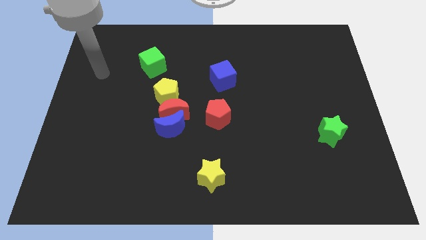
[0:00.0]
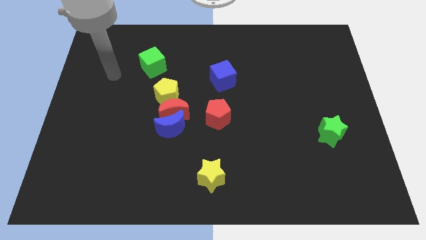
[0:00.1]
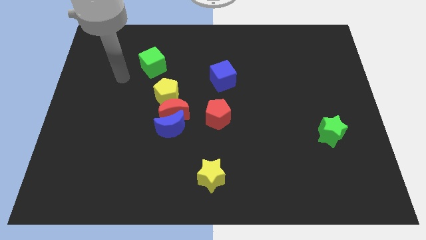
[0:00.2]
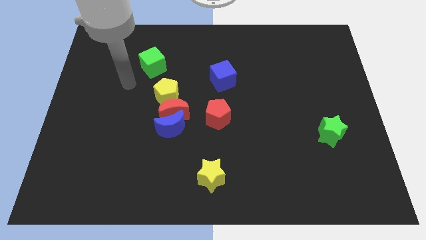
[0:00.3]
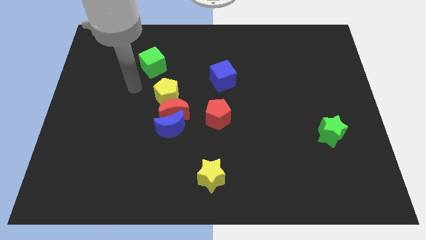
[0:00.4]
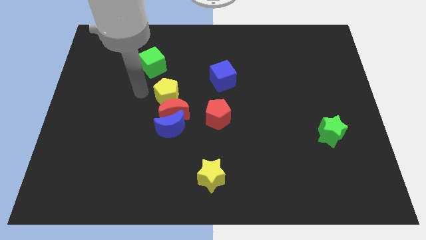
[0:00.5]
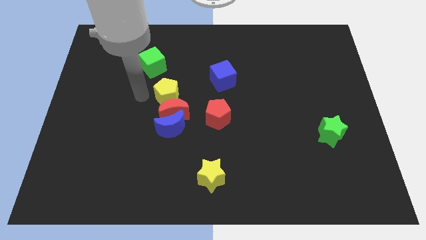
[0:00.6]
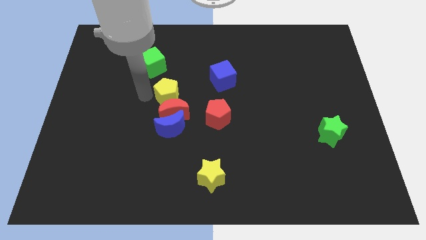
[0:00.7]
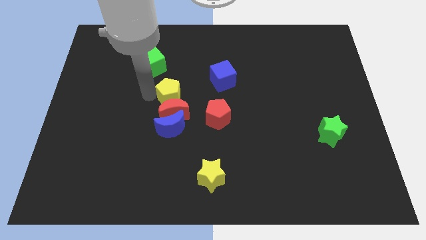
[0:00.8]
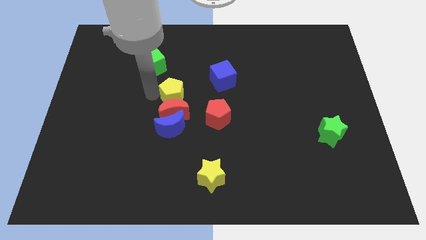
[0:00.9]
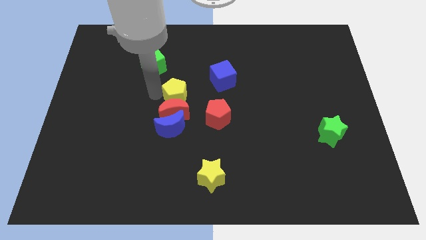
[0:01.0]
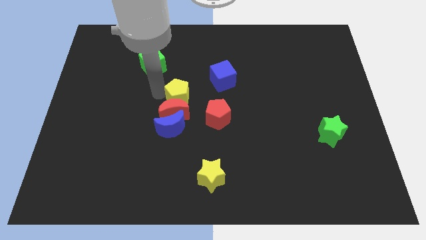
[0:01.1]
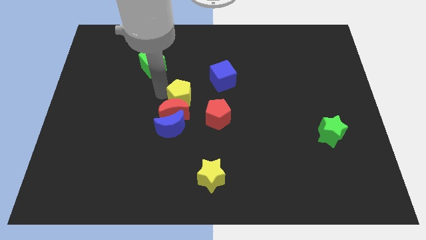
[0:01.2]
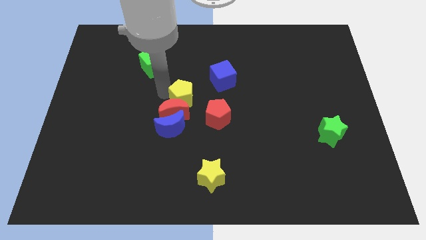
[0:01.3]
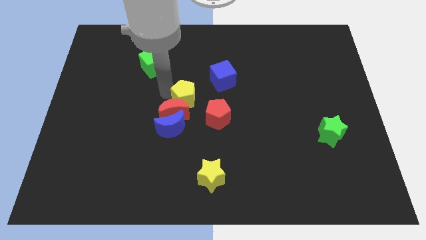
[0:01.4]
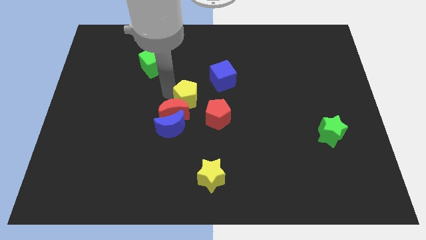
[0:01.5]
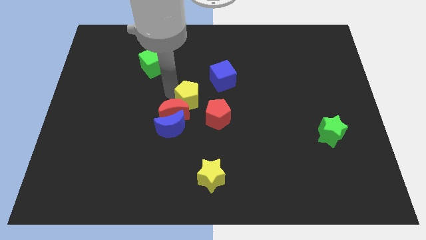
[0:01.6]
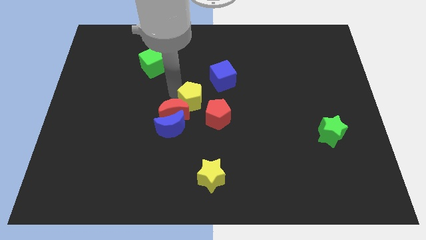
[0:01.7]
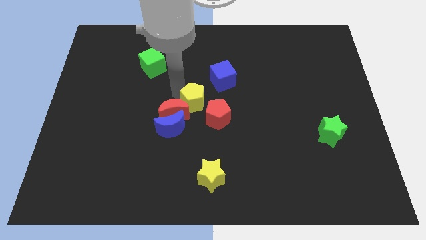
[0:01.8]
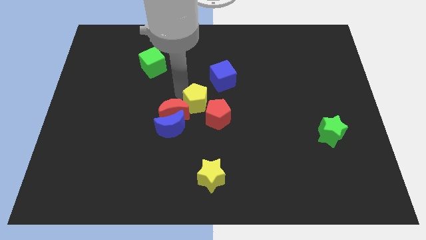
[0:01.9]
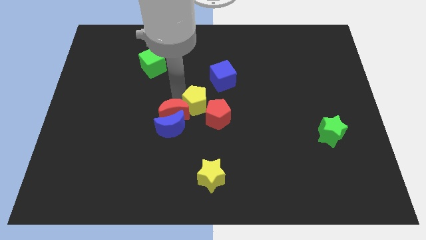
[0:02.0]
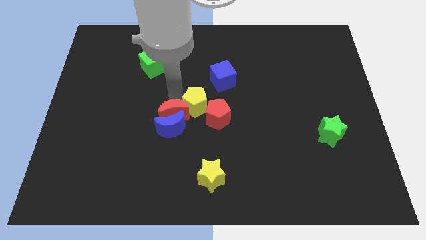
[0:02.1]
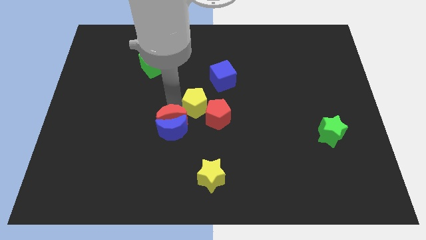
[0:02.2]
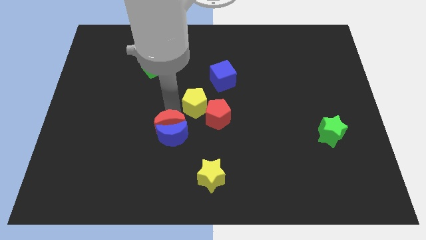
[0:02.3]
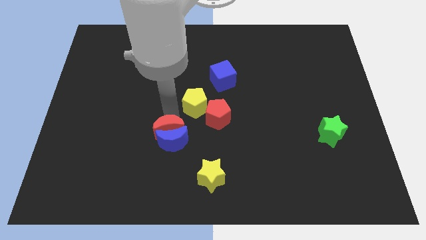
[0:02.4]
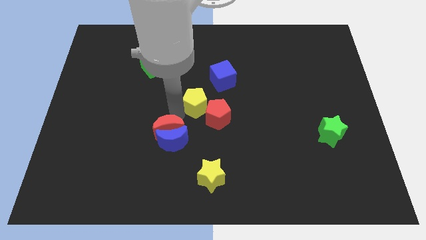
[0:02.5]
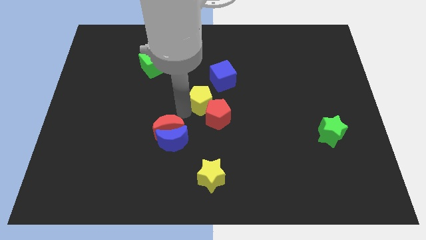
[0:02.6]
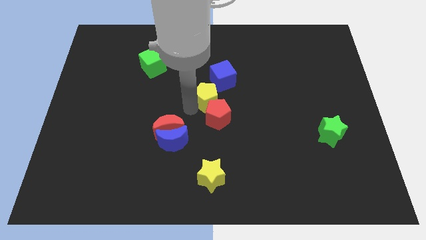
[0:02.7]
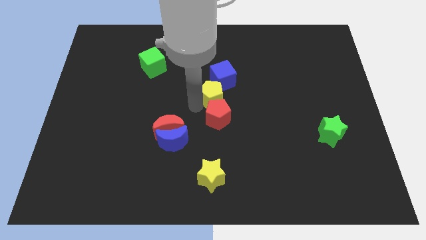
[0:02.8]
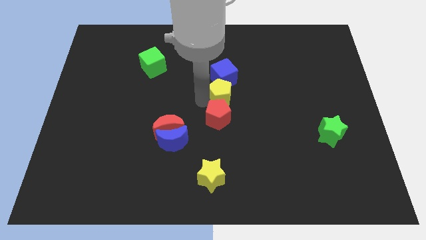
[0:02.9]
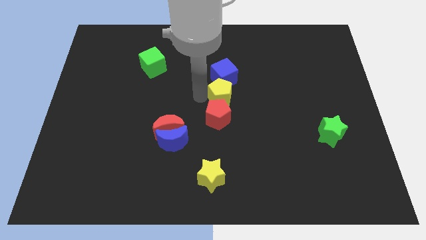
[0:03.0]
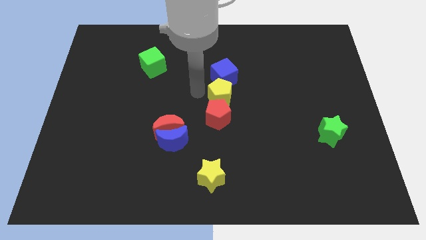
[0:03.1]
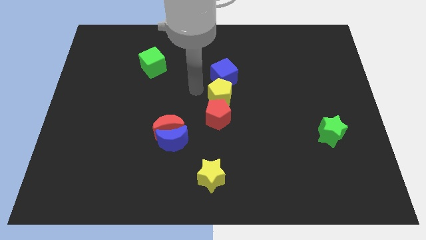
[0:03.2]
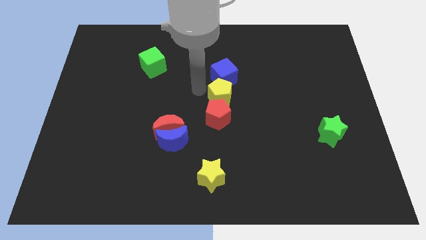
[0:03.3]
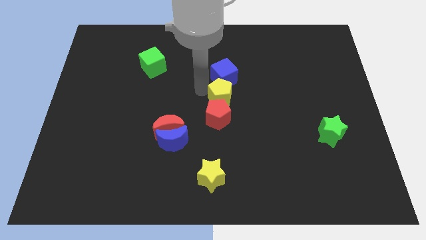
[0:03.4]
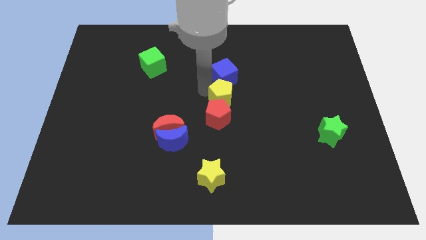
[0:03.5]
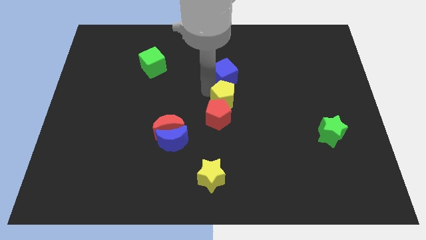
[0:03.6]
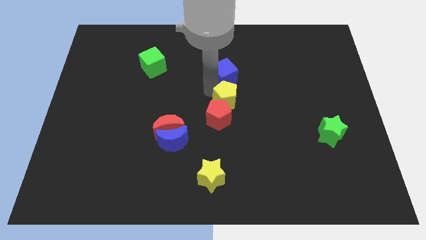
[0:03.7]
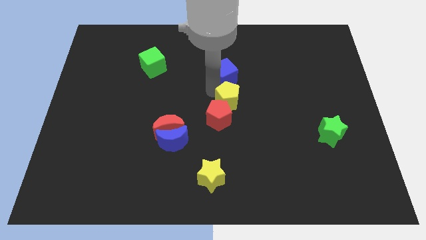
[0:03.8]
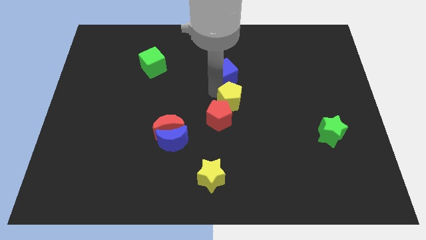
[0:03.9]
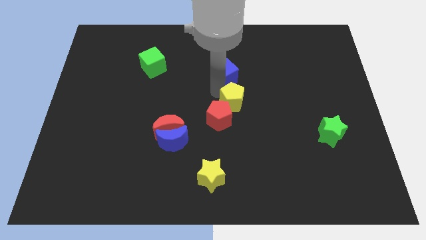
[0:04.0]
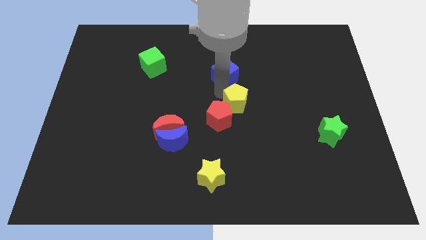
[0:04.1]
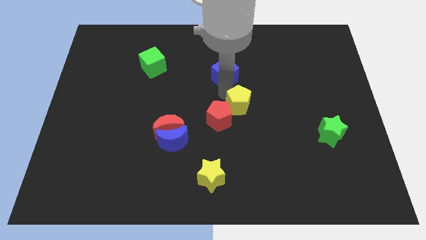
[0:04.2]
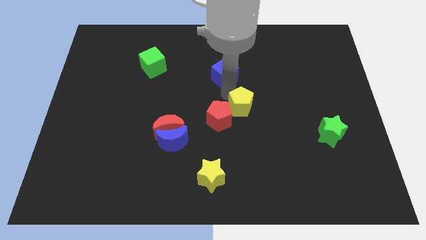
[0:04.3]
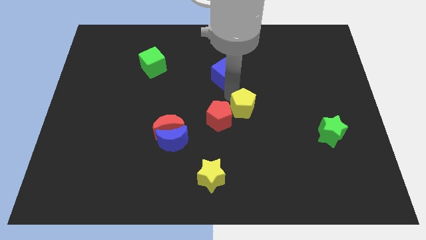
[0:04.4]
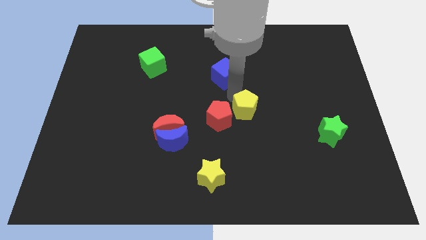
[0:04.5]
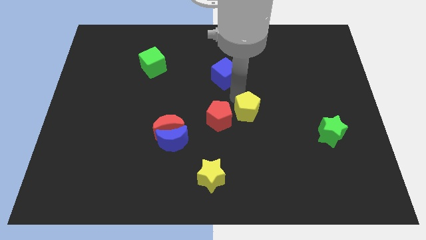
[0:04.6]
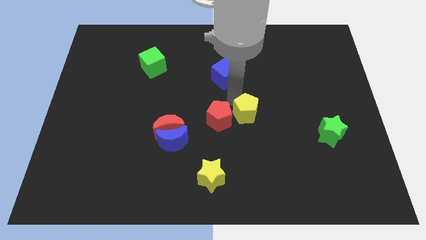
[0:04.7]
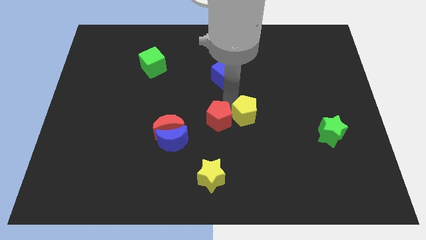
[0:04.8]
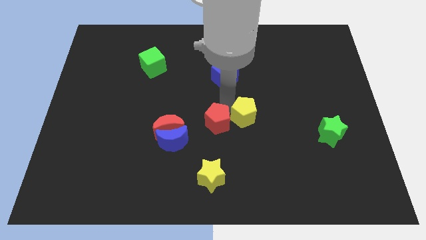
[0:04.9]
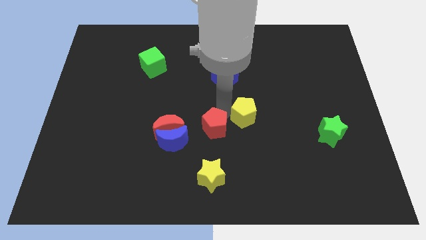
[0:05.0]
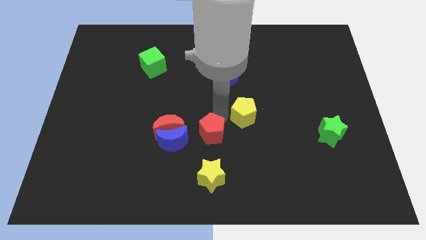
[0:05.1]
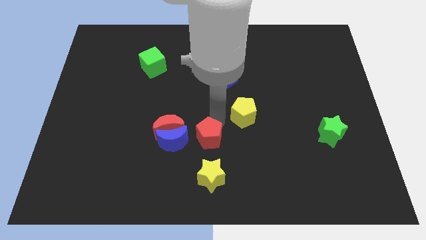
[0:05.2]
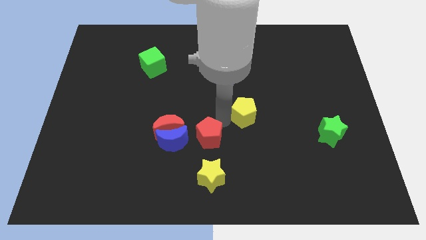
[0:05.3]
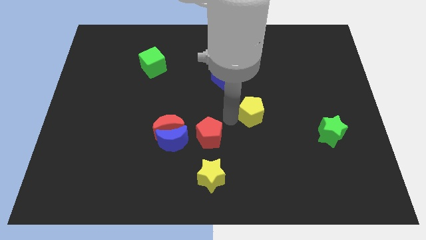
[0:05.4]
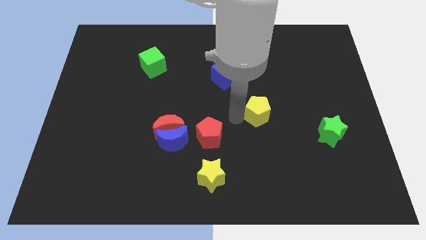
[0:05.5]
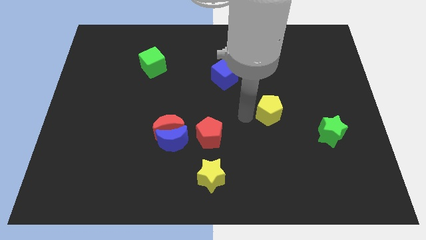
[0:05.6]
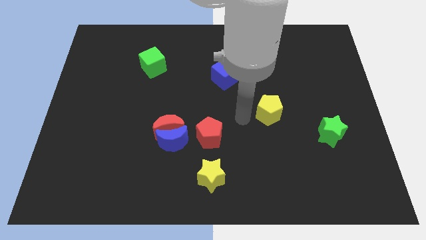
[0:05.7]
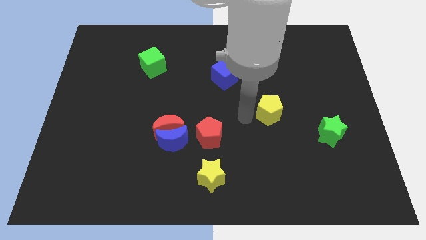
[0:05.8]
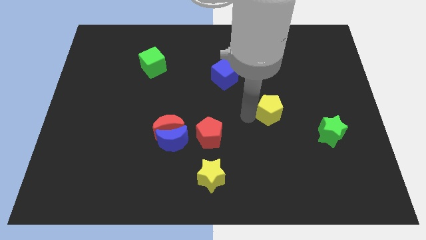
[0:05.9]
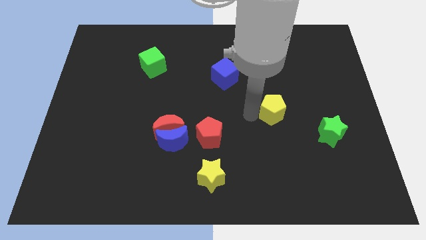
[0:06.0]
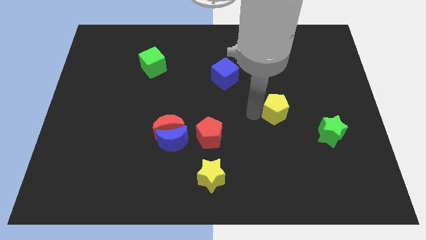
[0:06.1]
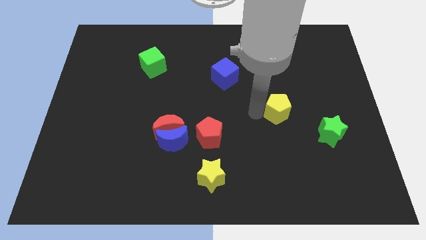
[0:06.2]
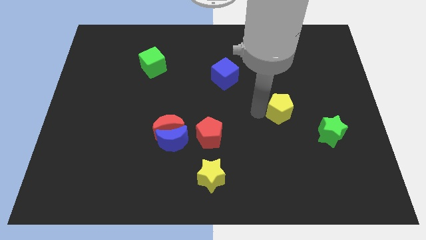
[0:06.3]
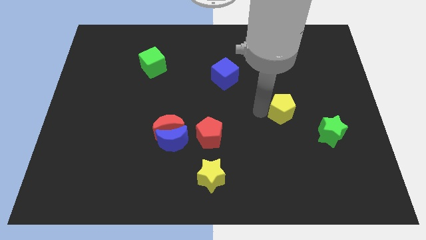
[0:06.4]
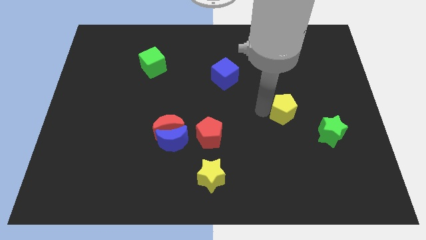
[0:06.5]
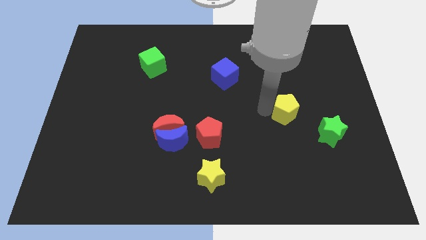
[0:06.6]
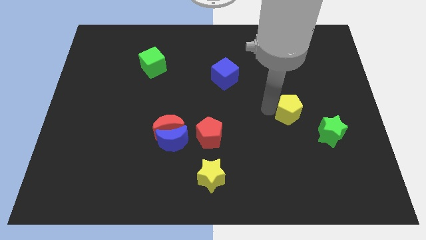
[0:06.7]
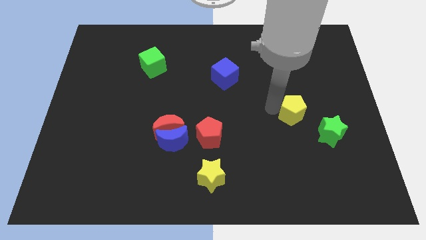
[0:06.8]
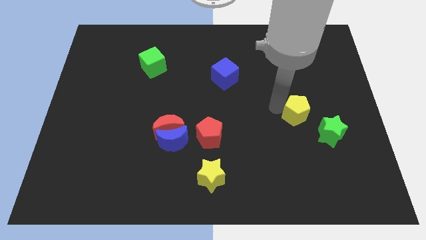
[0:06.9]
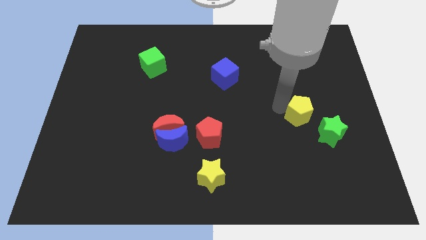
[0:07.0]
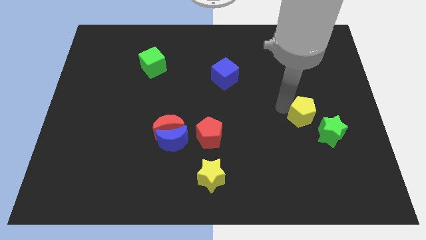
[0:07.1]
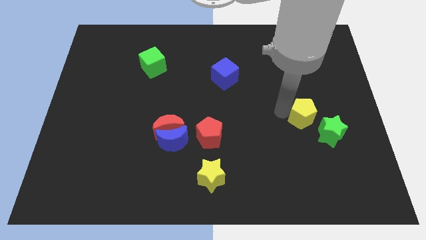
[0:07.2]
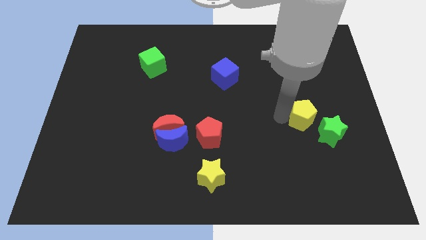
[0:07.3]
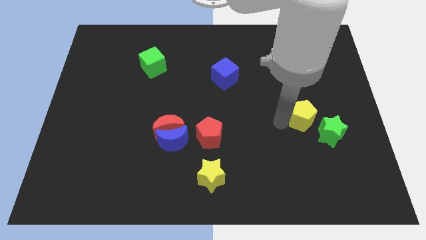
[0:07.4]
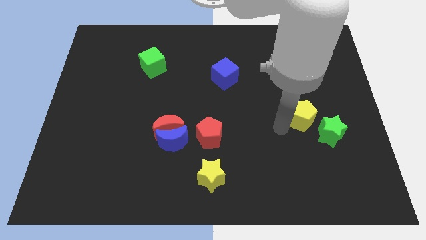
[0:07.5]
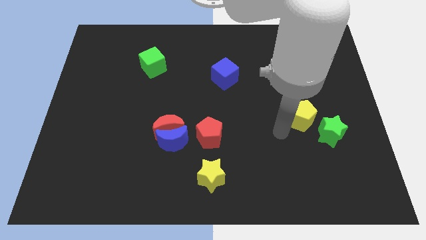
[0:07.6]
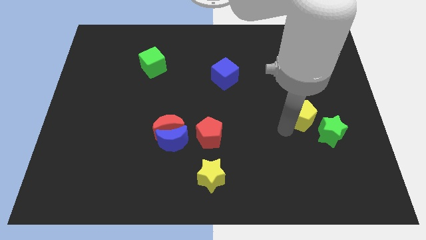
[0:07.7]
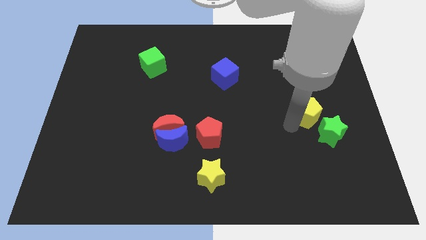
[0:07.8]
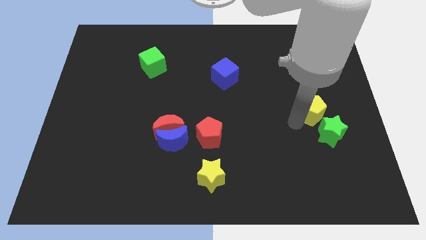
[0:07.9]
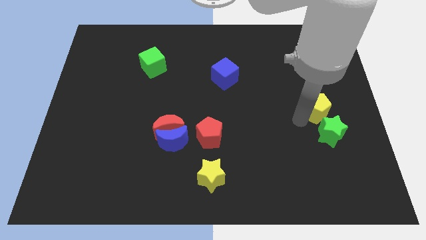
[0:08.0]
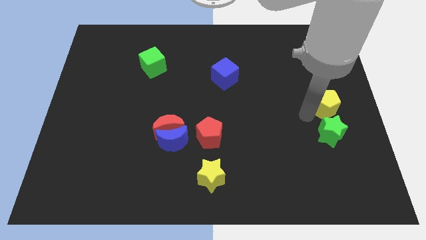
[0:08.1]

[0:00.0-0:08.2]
slide the yellow pentagon to the right side of the board
